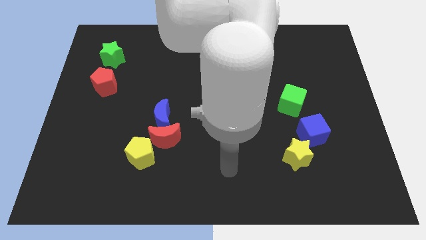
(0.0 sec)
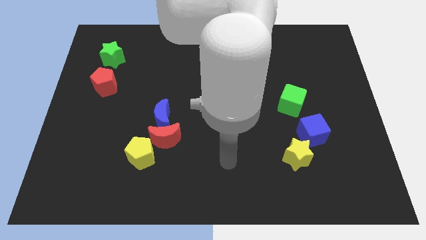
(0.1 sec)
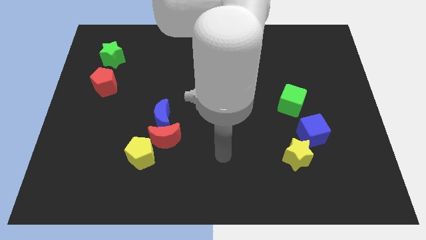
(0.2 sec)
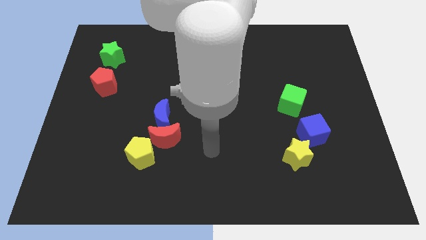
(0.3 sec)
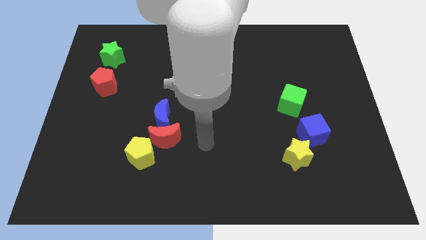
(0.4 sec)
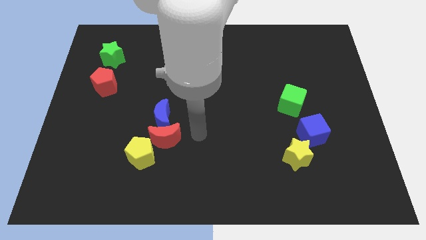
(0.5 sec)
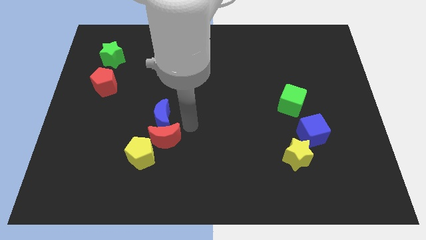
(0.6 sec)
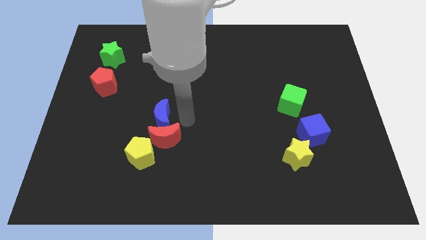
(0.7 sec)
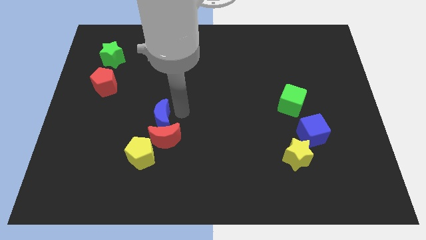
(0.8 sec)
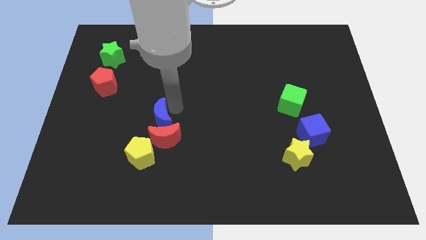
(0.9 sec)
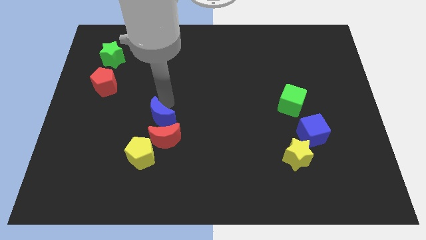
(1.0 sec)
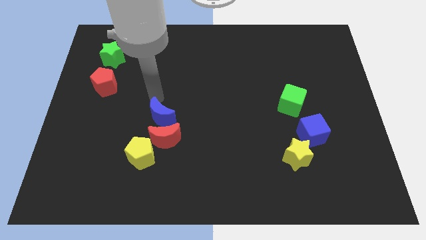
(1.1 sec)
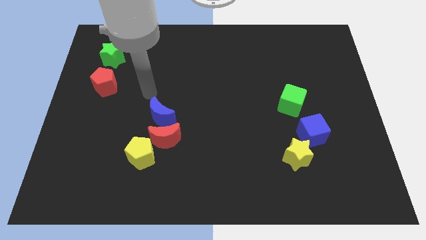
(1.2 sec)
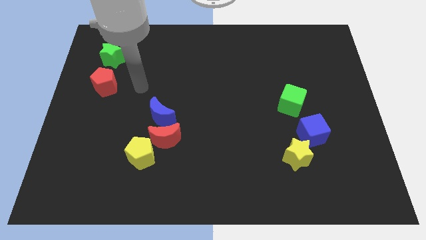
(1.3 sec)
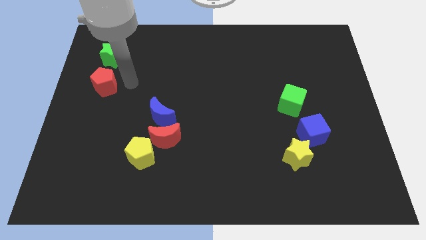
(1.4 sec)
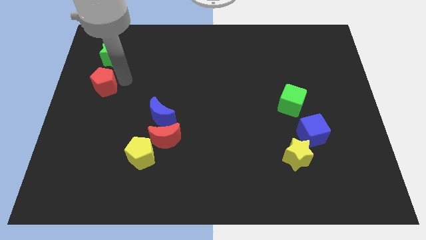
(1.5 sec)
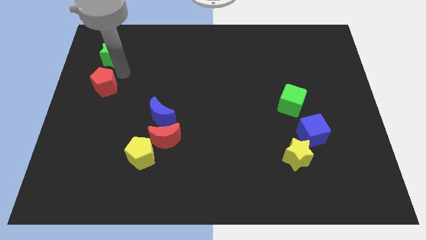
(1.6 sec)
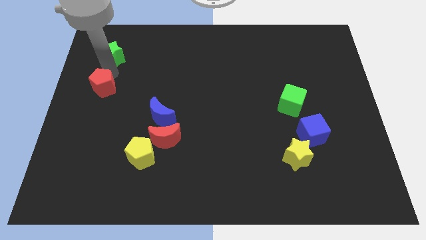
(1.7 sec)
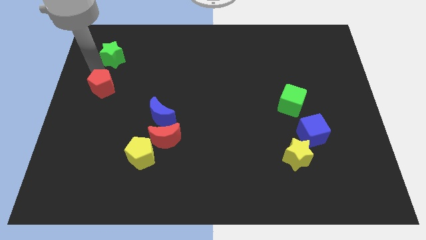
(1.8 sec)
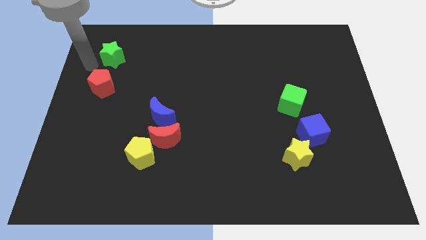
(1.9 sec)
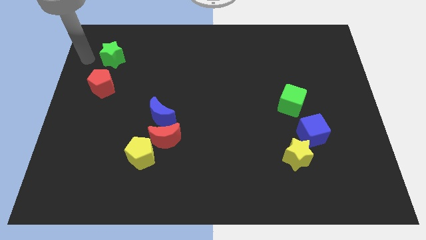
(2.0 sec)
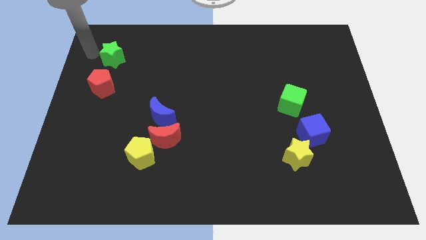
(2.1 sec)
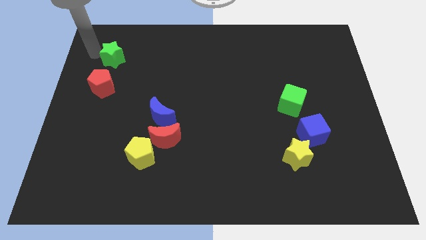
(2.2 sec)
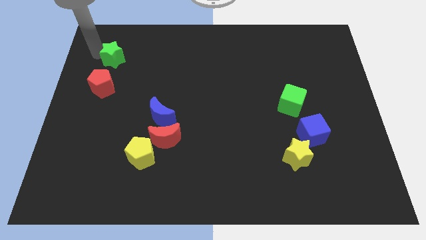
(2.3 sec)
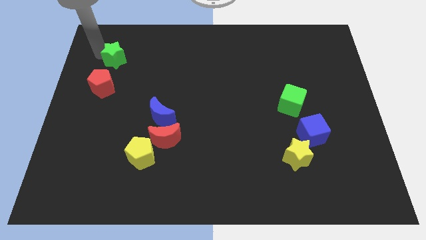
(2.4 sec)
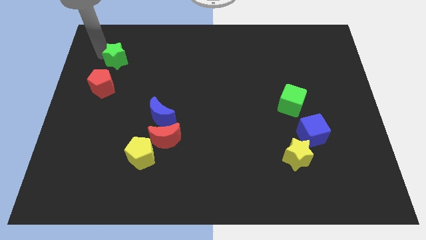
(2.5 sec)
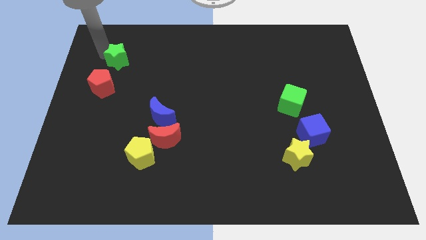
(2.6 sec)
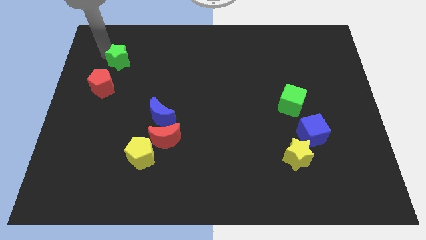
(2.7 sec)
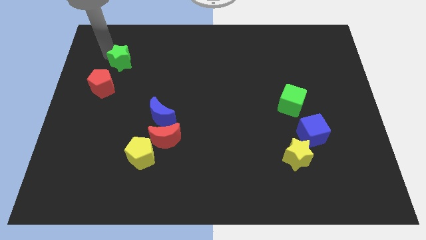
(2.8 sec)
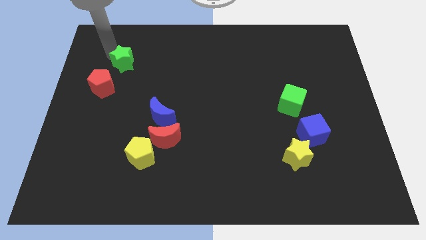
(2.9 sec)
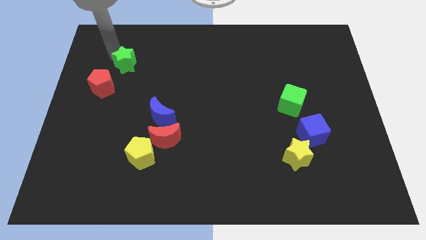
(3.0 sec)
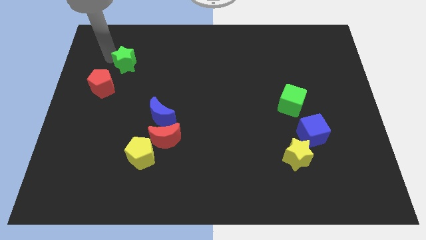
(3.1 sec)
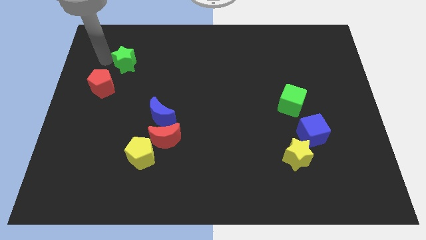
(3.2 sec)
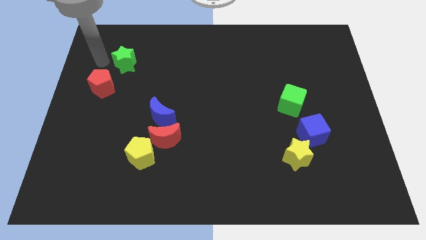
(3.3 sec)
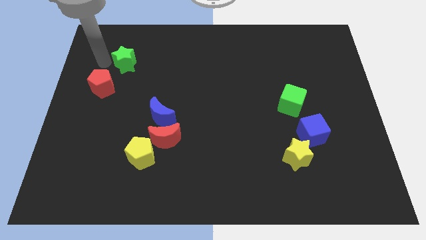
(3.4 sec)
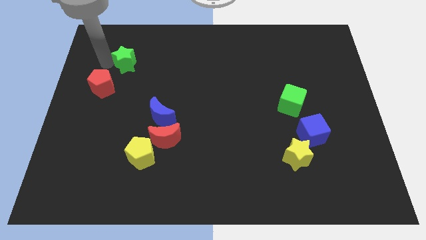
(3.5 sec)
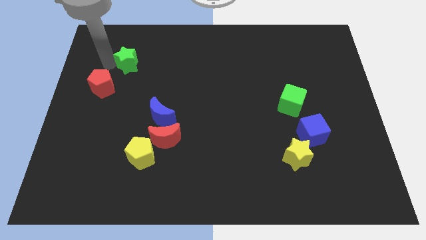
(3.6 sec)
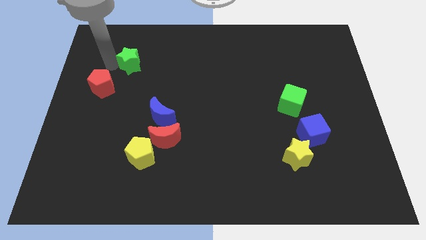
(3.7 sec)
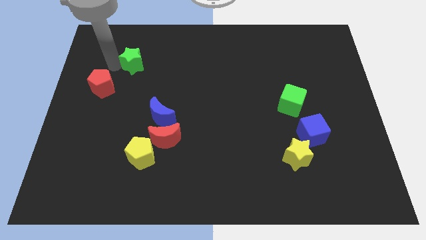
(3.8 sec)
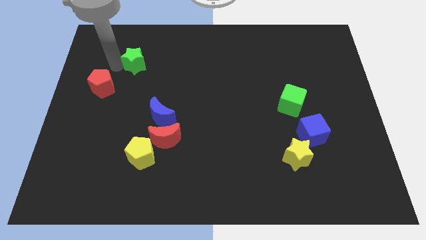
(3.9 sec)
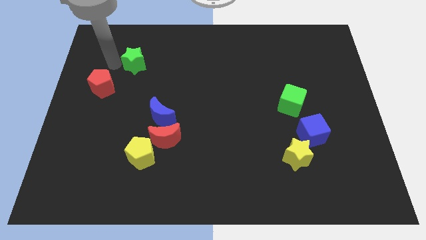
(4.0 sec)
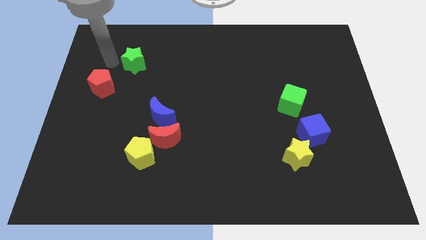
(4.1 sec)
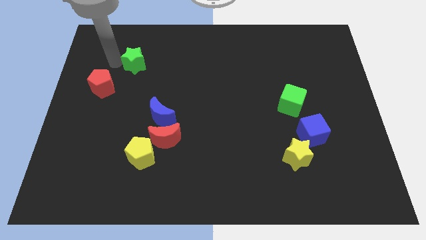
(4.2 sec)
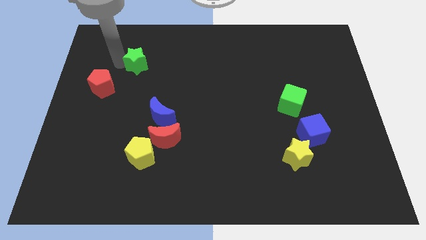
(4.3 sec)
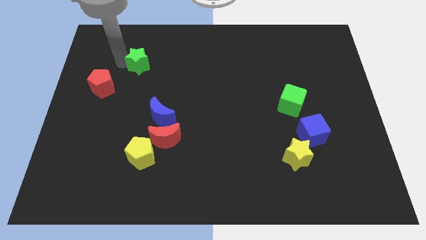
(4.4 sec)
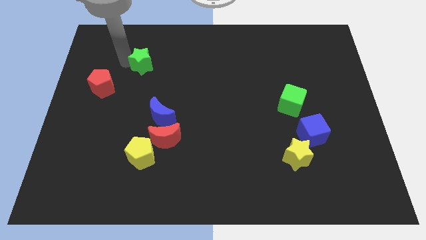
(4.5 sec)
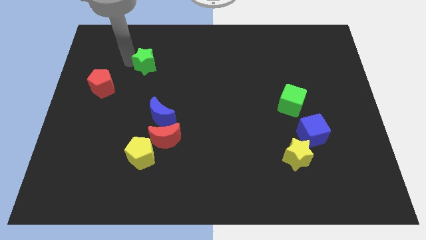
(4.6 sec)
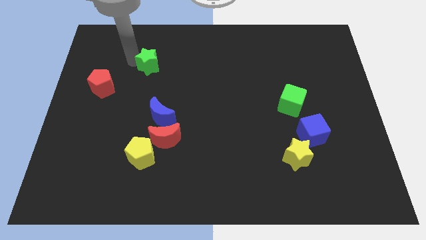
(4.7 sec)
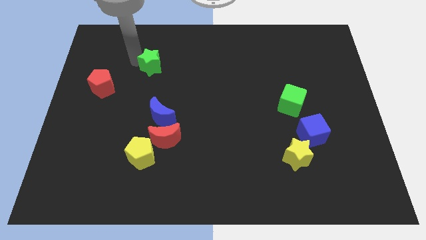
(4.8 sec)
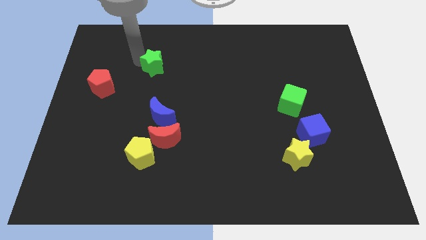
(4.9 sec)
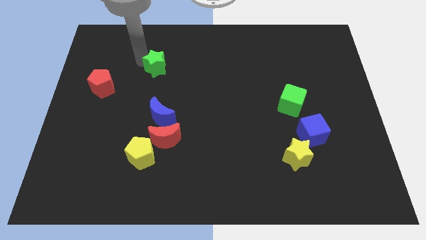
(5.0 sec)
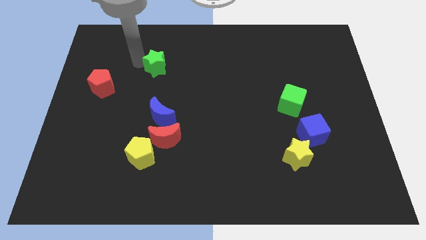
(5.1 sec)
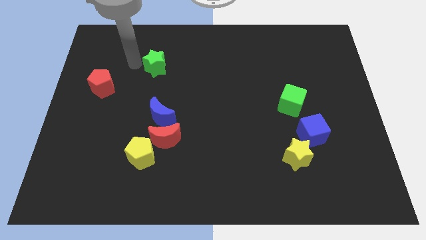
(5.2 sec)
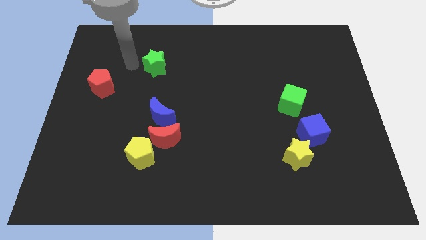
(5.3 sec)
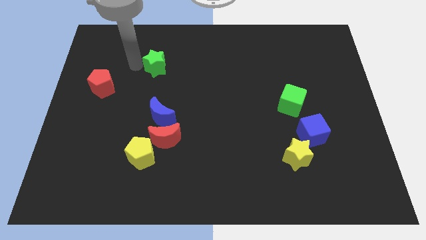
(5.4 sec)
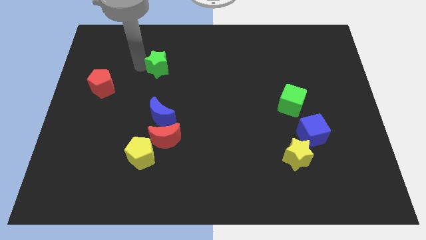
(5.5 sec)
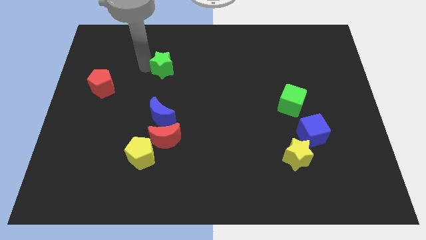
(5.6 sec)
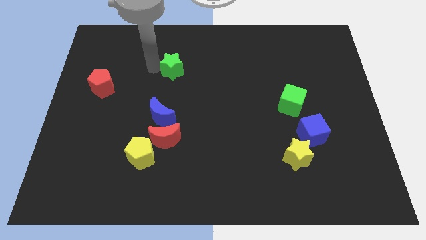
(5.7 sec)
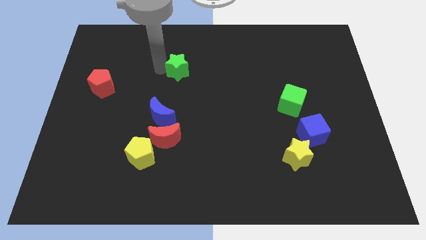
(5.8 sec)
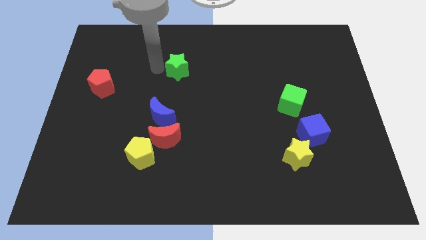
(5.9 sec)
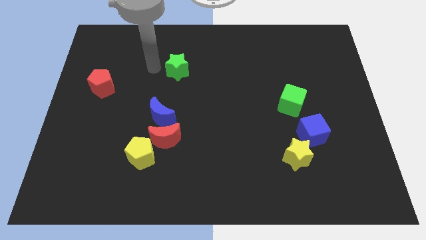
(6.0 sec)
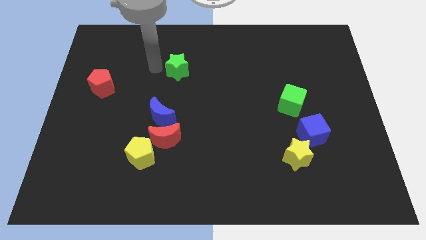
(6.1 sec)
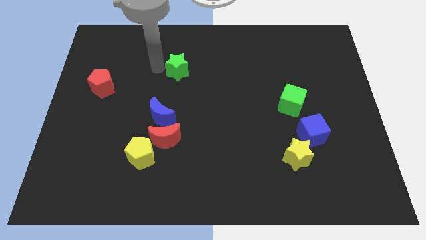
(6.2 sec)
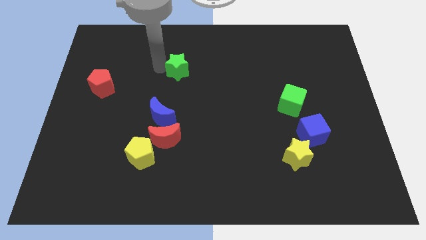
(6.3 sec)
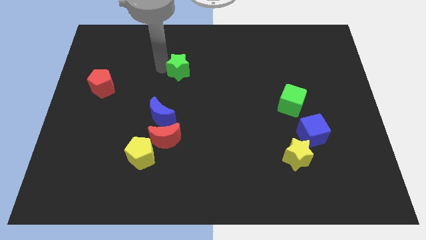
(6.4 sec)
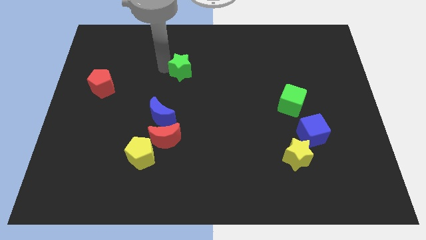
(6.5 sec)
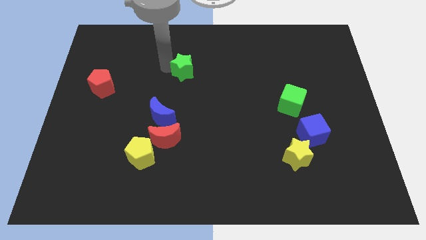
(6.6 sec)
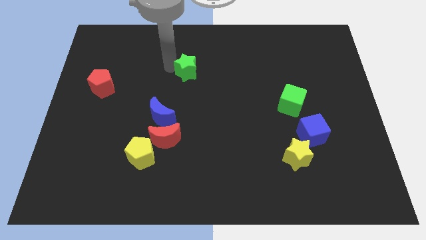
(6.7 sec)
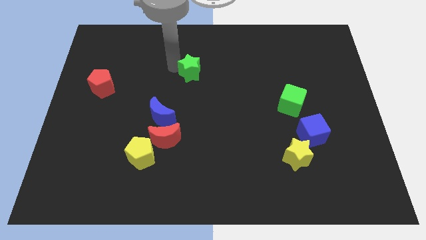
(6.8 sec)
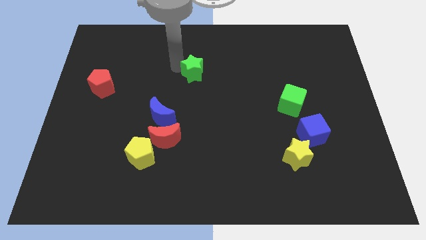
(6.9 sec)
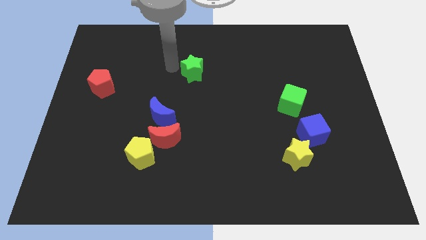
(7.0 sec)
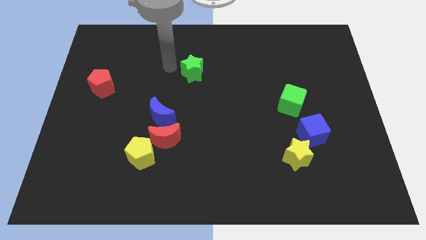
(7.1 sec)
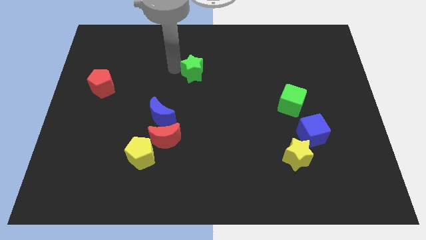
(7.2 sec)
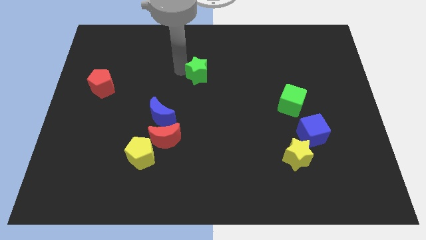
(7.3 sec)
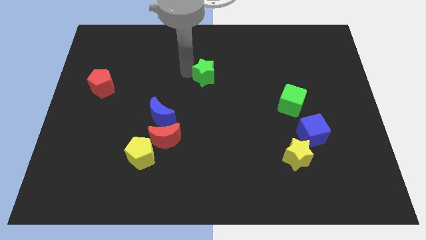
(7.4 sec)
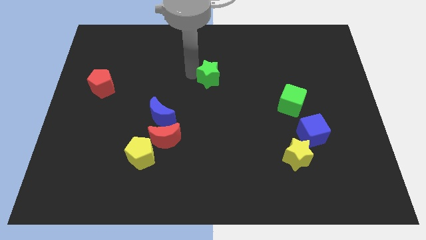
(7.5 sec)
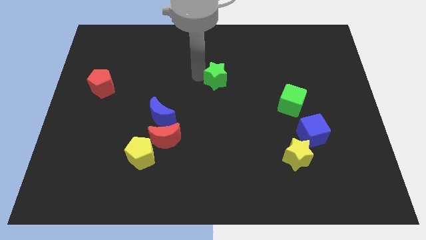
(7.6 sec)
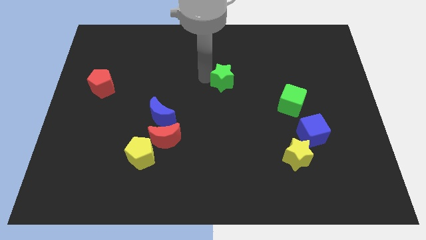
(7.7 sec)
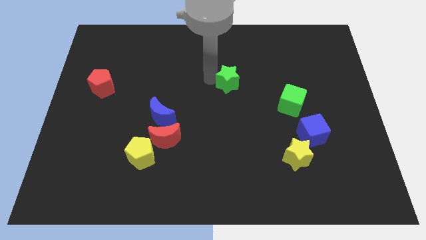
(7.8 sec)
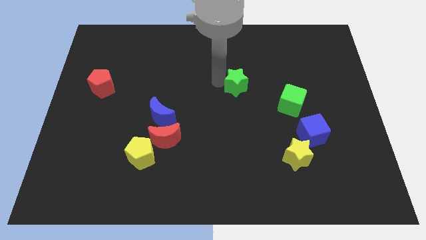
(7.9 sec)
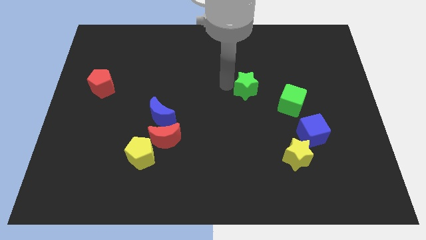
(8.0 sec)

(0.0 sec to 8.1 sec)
put the green star diagonally up and to the left of the green cube
